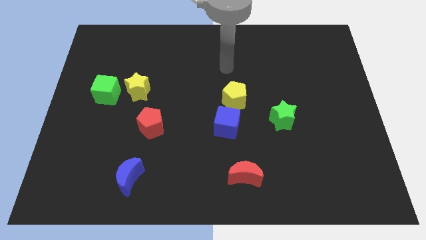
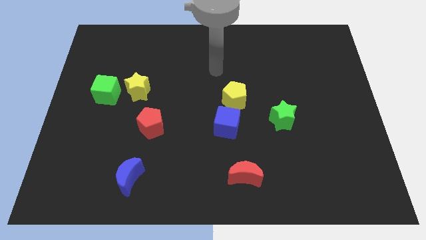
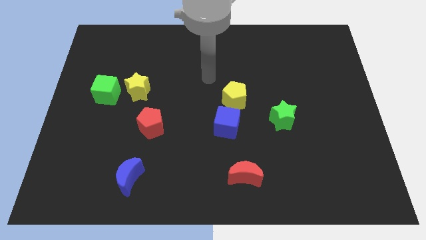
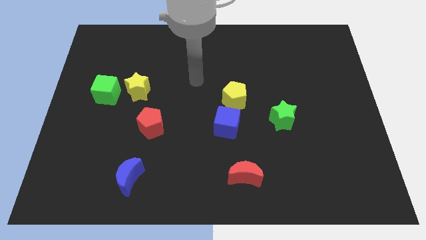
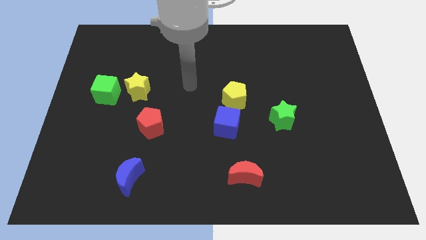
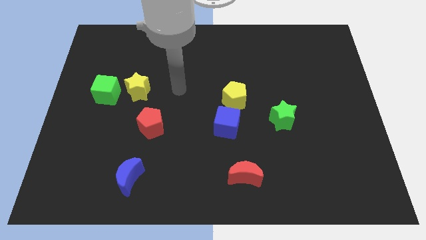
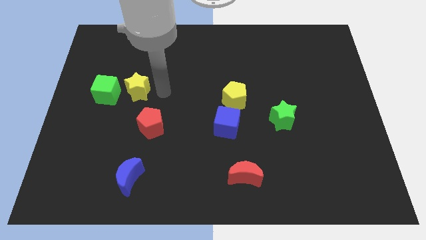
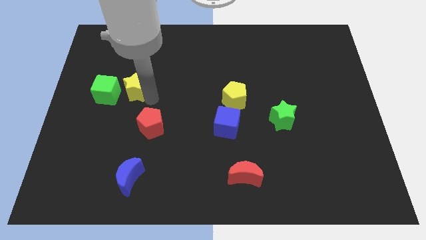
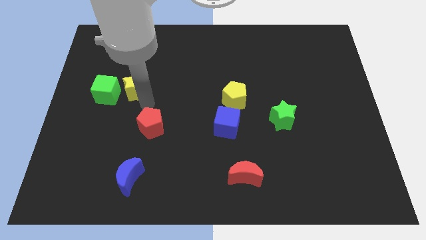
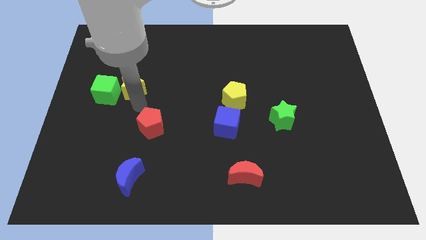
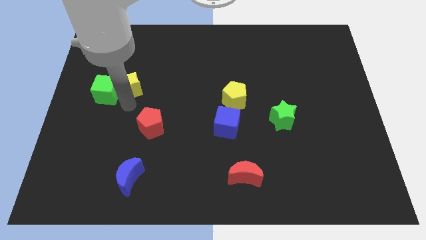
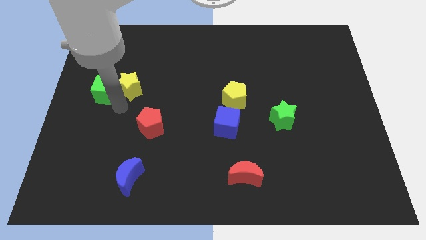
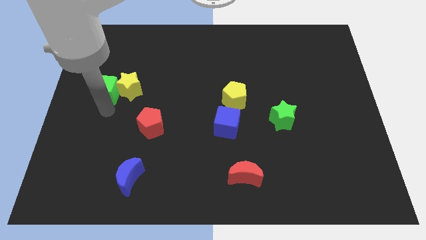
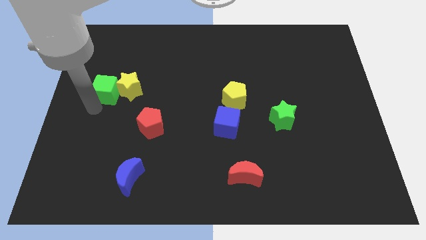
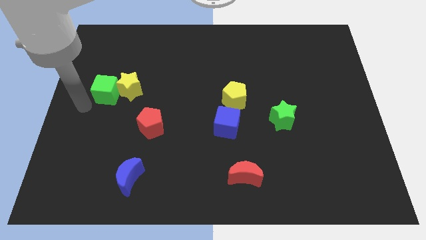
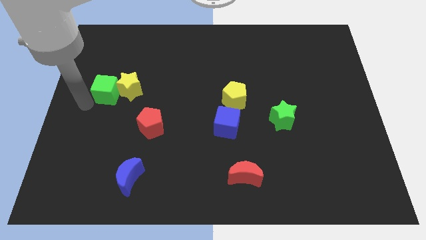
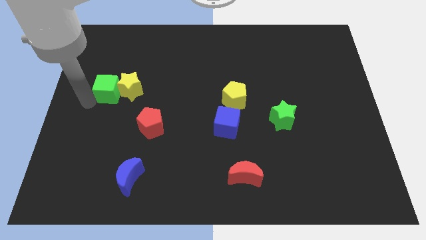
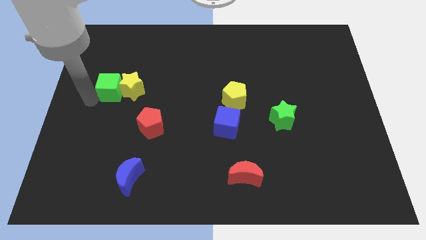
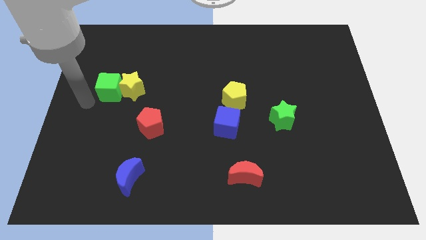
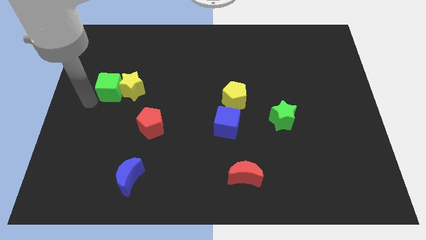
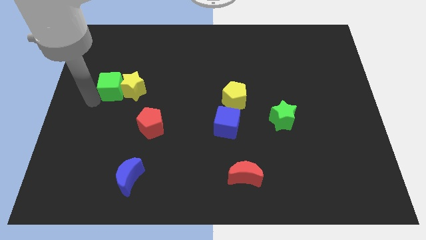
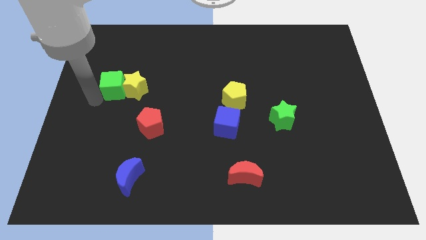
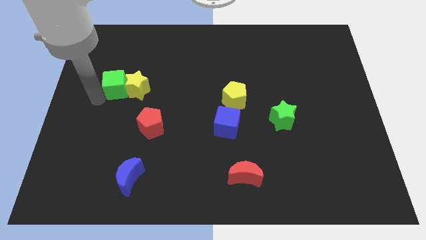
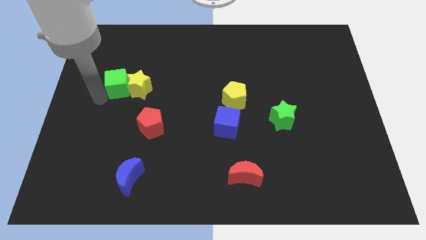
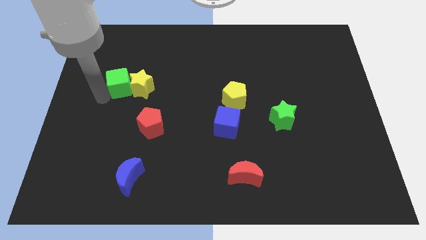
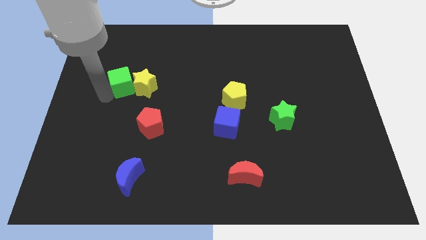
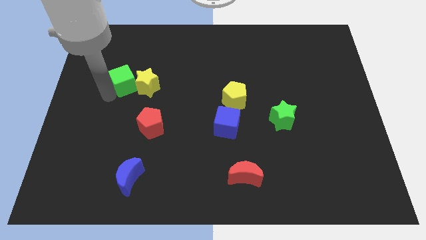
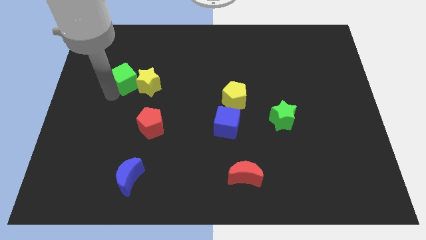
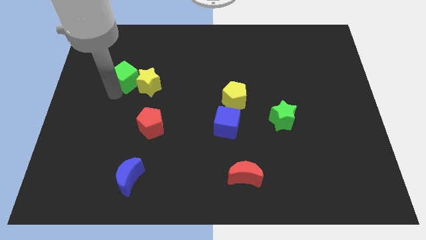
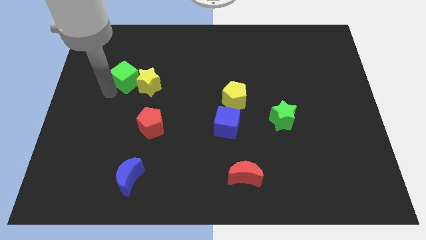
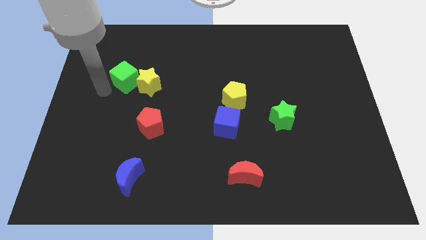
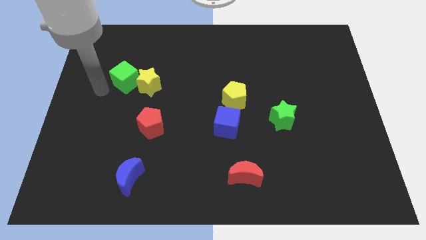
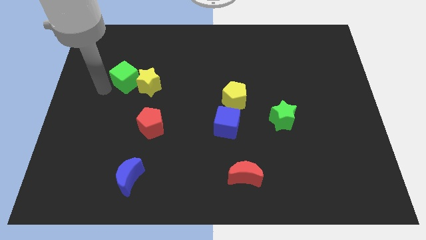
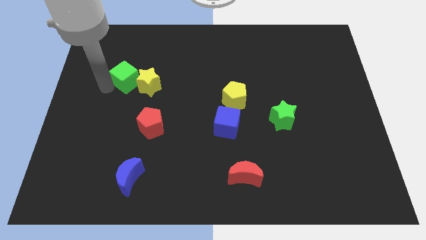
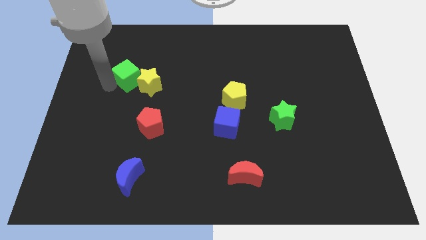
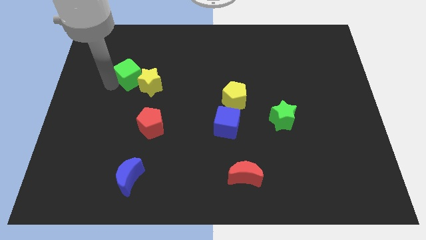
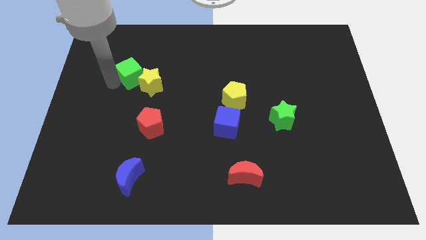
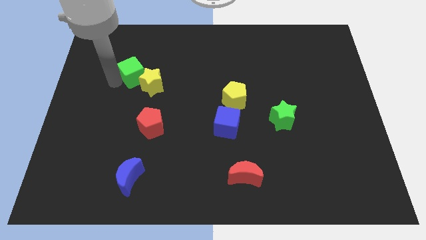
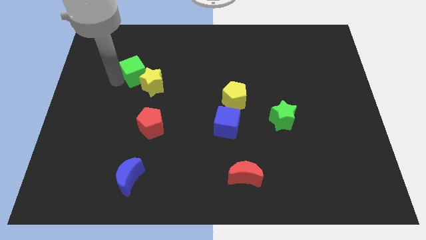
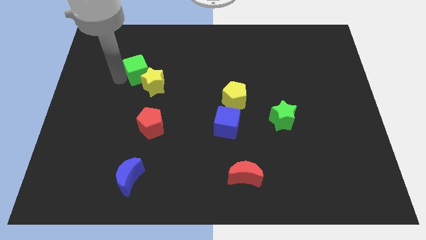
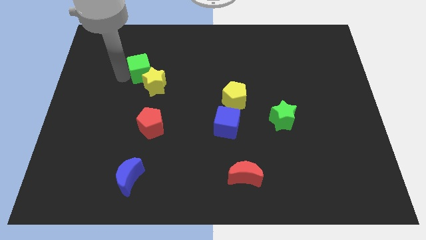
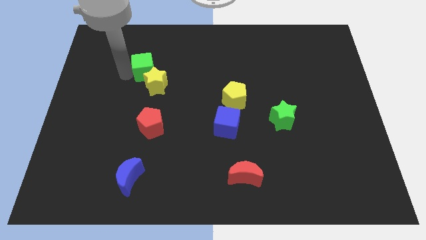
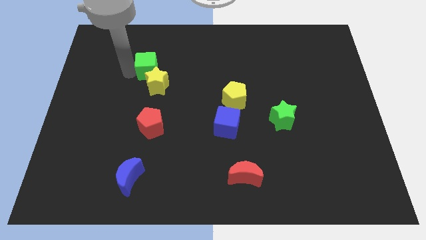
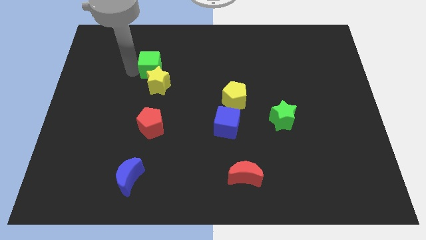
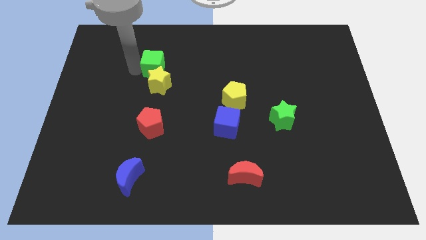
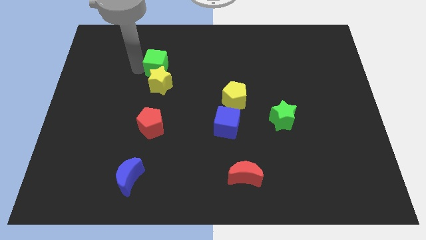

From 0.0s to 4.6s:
move the green cube to the top right side of the yellow star

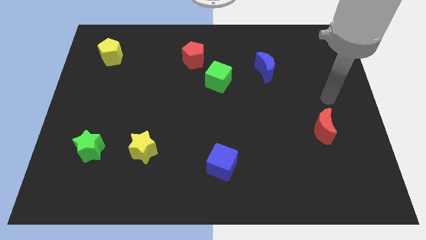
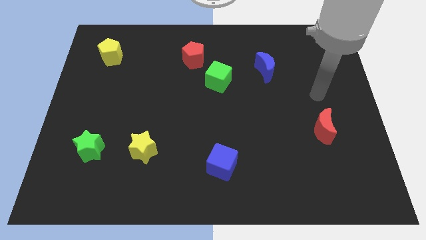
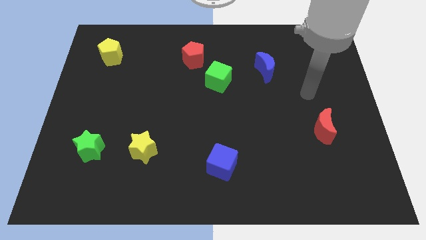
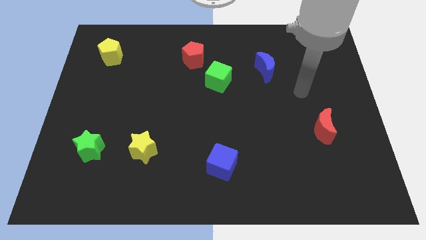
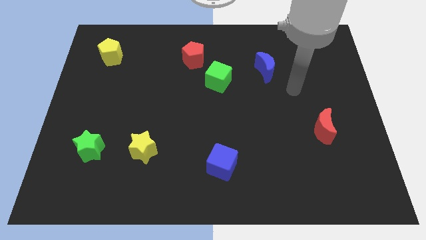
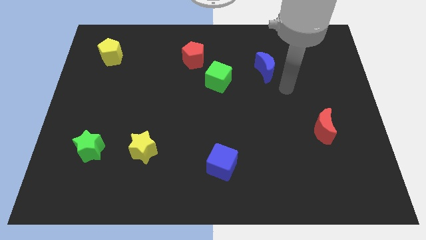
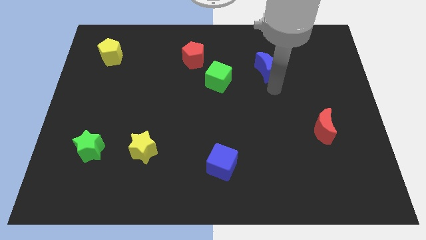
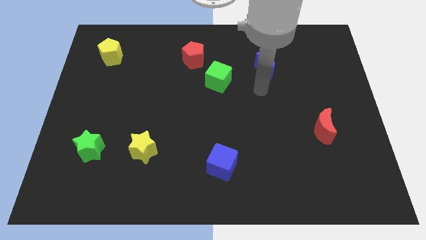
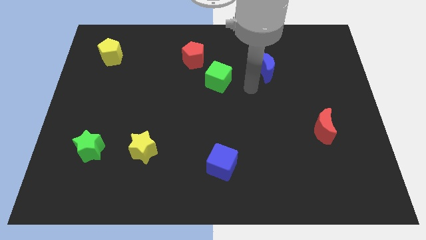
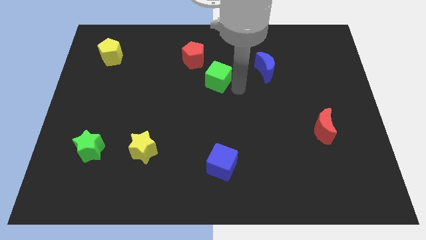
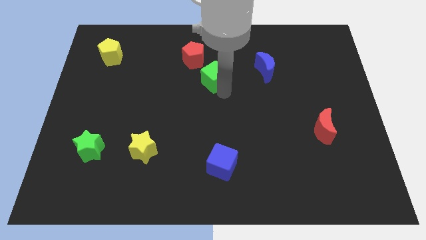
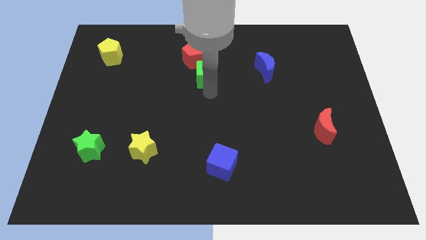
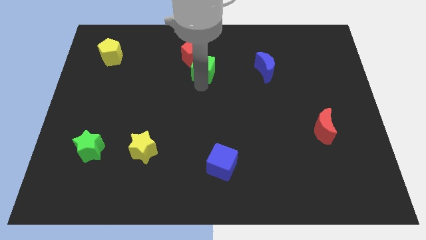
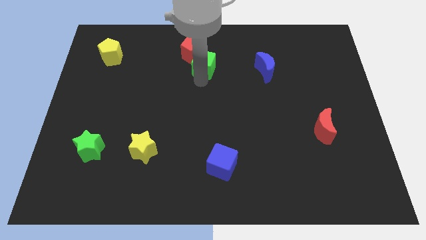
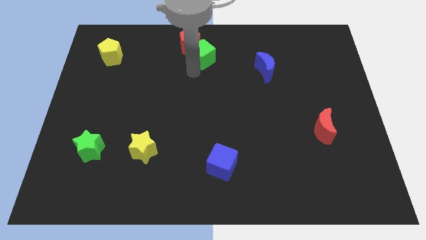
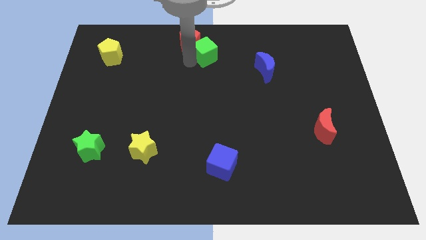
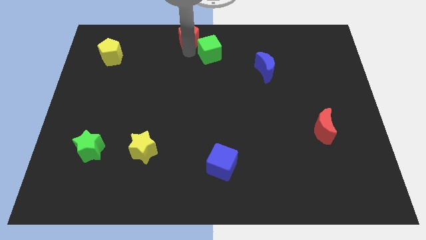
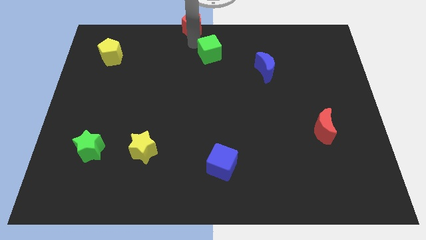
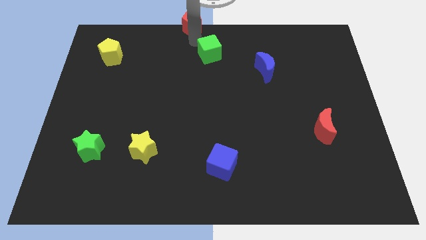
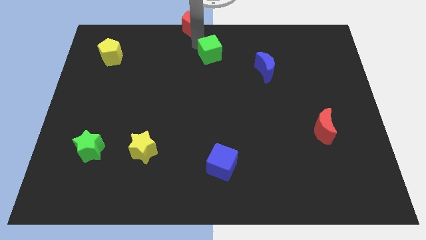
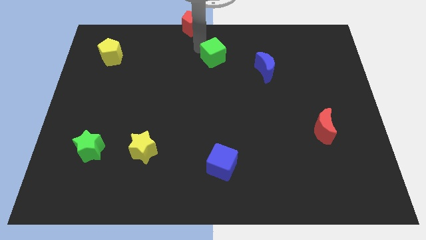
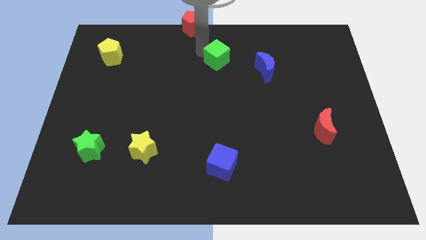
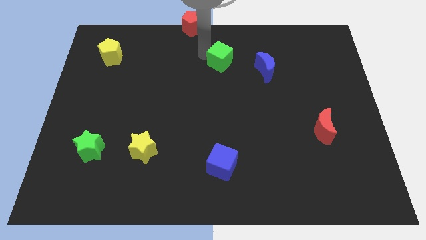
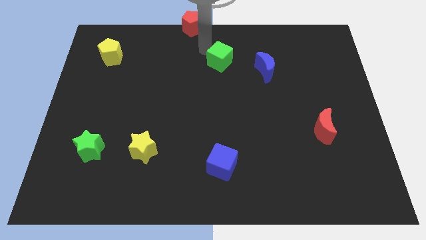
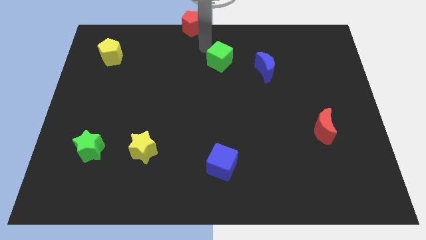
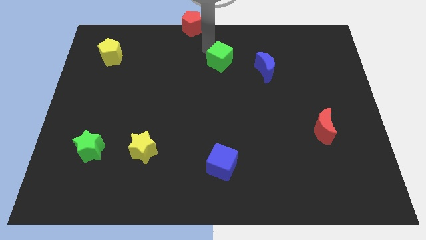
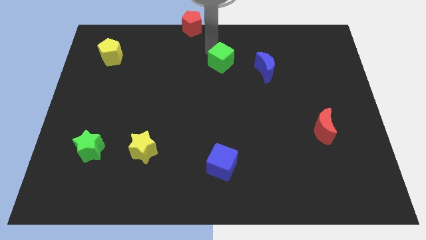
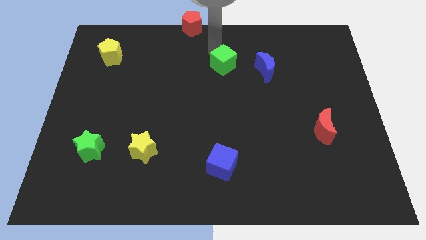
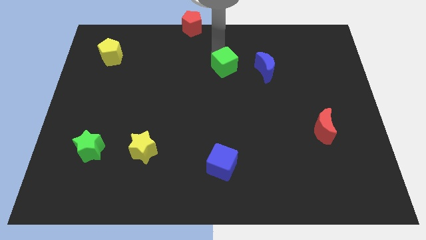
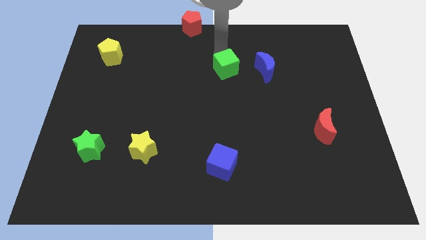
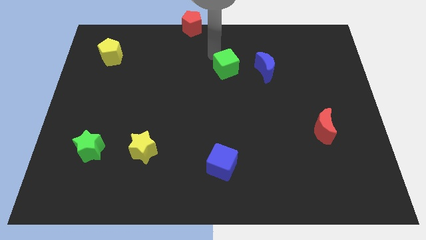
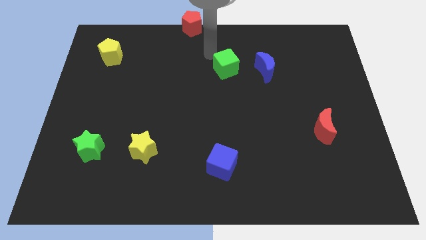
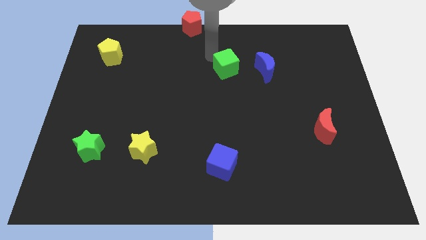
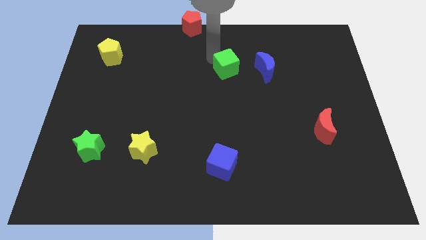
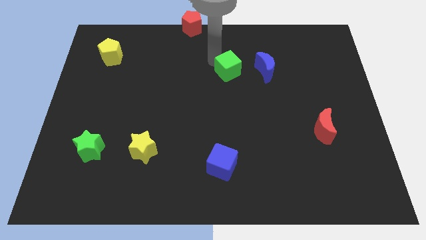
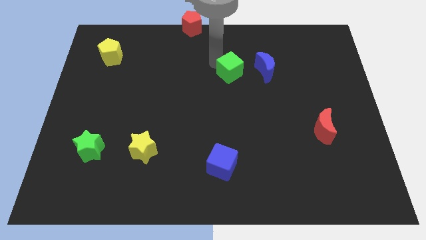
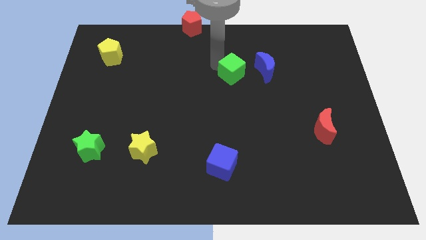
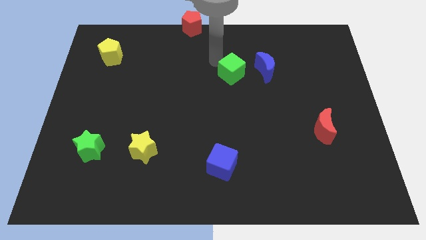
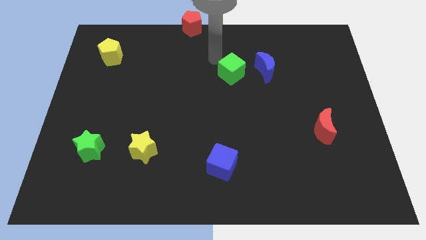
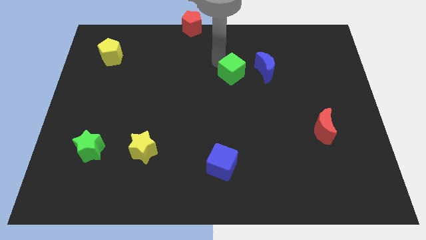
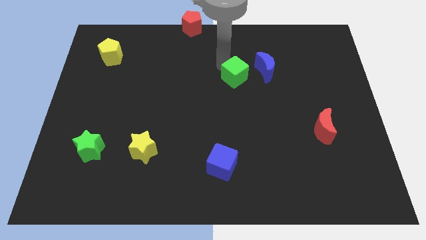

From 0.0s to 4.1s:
push the green cube to the bottom left of the blue moon
